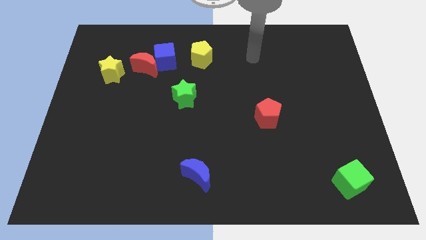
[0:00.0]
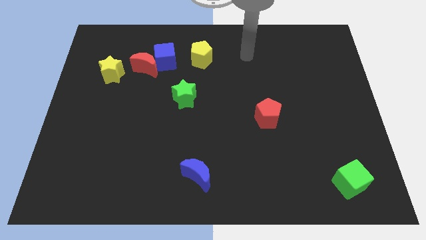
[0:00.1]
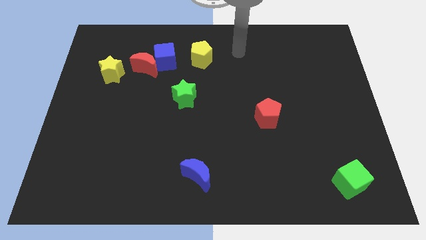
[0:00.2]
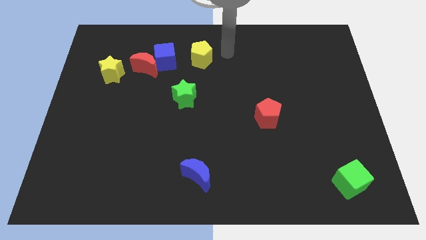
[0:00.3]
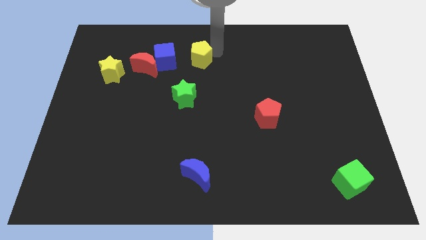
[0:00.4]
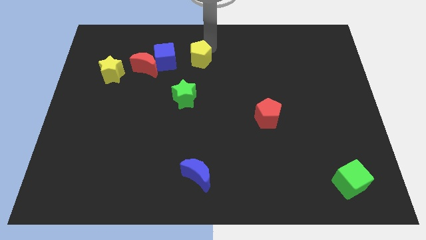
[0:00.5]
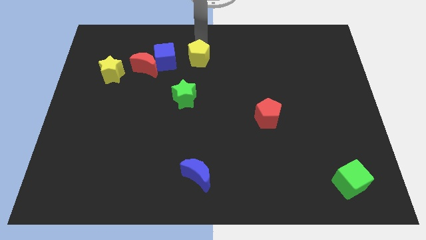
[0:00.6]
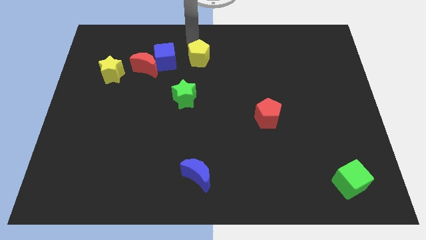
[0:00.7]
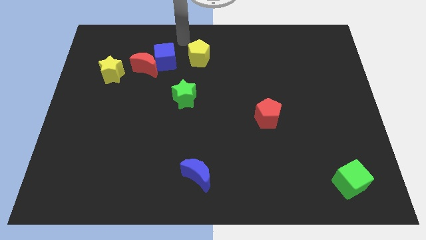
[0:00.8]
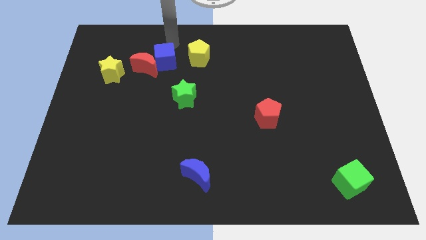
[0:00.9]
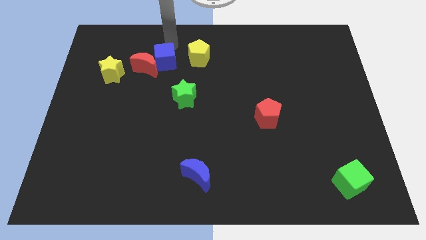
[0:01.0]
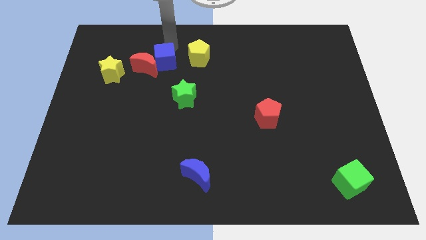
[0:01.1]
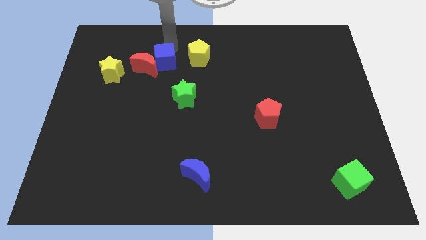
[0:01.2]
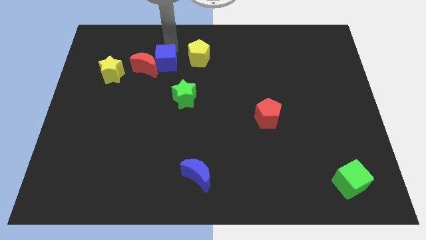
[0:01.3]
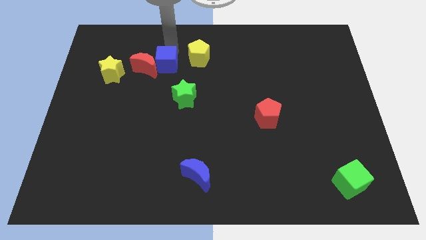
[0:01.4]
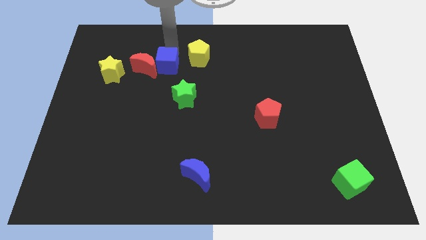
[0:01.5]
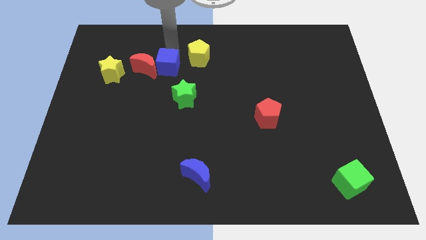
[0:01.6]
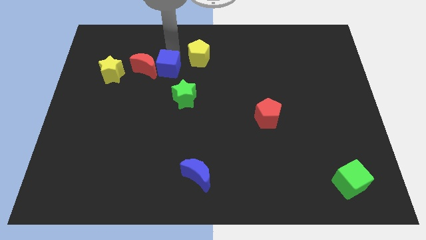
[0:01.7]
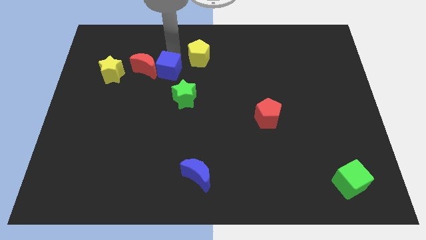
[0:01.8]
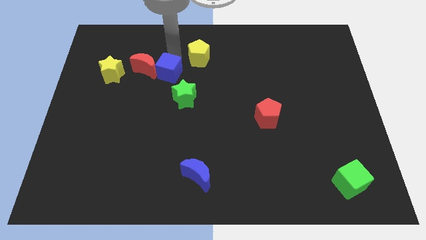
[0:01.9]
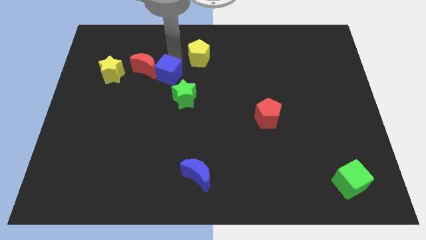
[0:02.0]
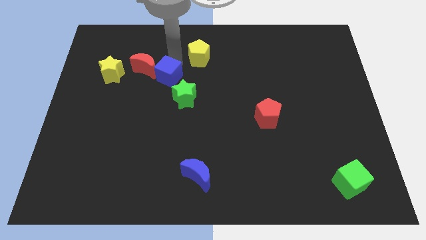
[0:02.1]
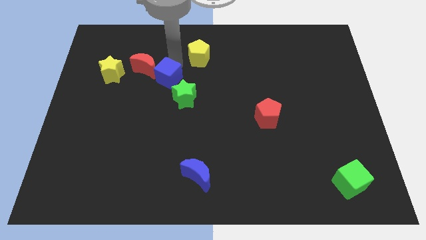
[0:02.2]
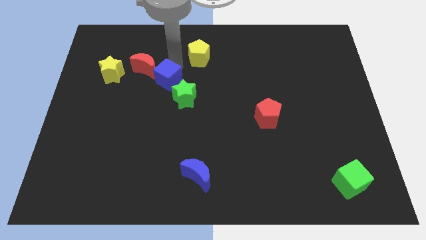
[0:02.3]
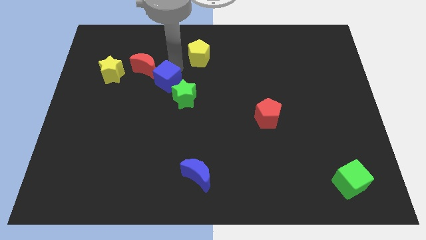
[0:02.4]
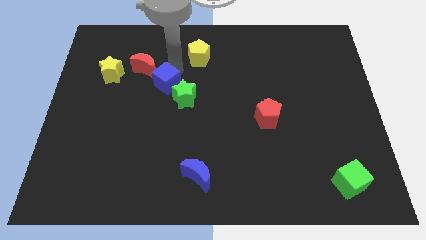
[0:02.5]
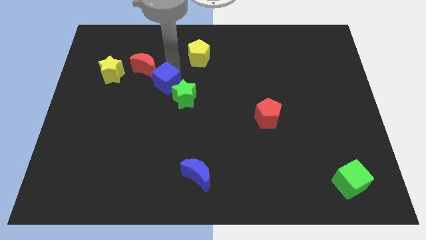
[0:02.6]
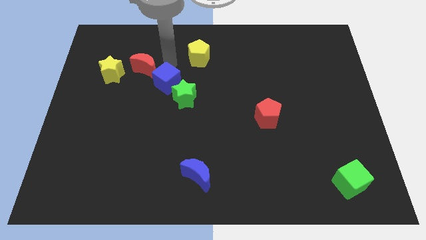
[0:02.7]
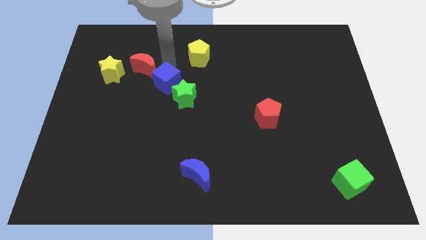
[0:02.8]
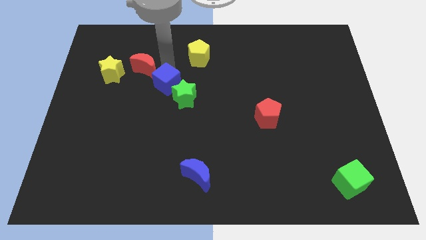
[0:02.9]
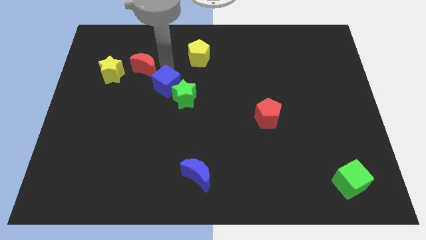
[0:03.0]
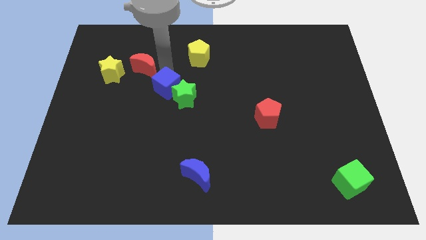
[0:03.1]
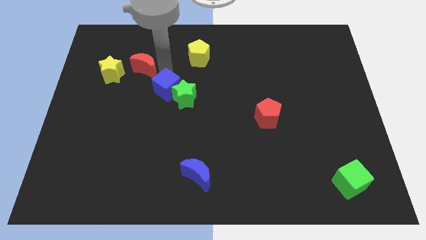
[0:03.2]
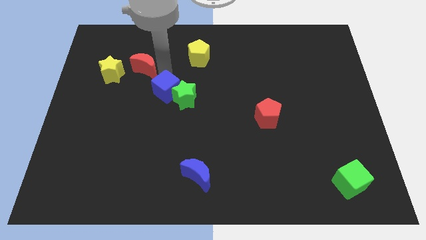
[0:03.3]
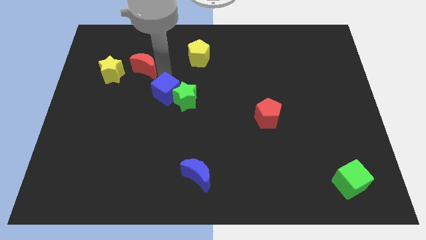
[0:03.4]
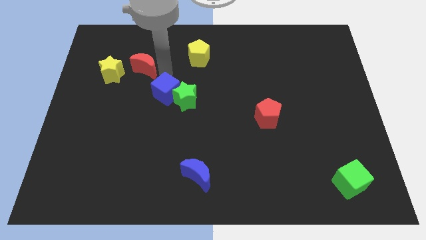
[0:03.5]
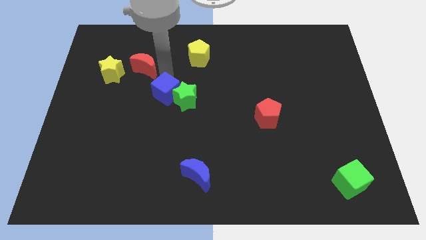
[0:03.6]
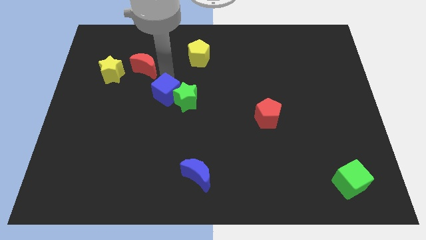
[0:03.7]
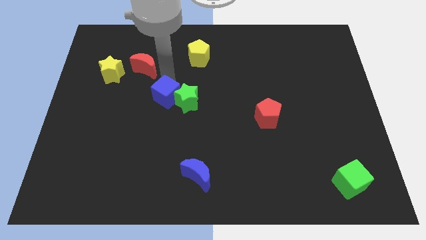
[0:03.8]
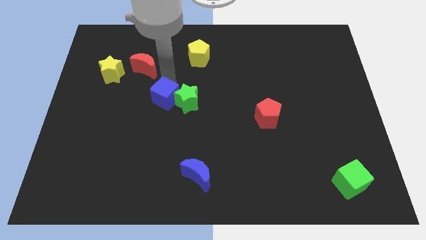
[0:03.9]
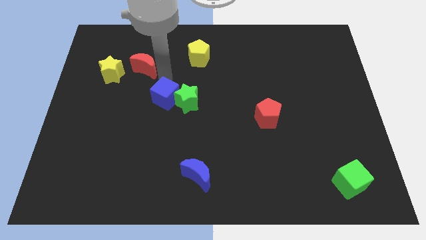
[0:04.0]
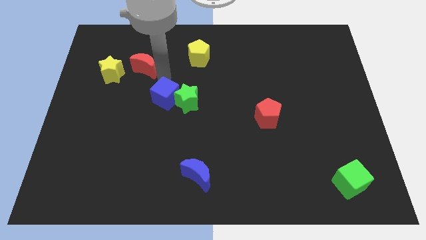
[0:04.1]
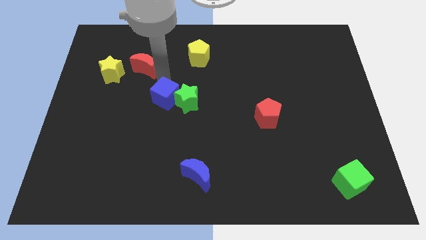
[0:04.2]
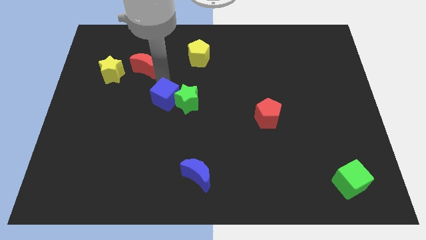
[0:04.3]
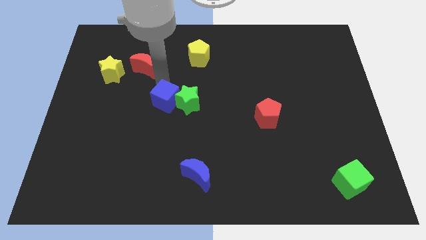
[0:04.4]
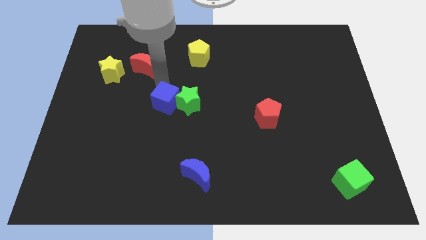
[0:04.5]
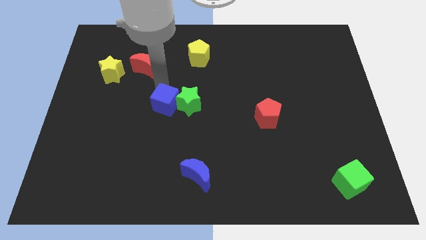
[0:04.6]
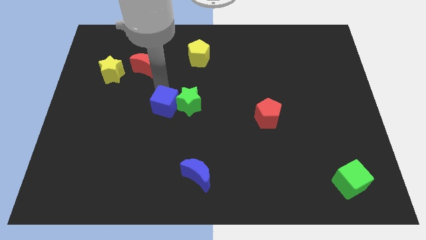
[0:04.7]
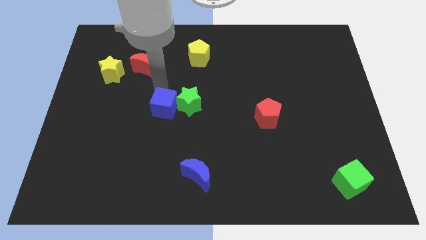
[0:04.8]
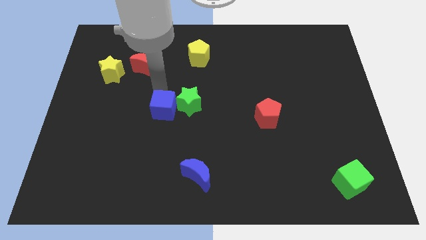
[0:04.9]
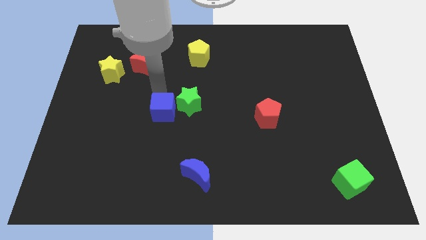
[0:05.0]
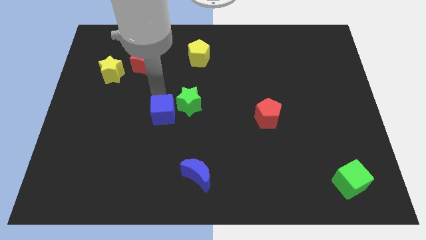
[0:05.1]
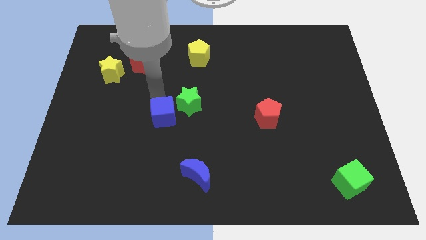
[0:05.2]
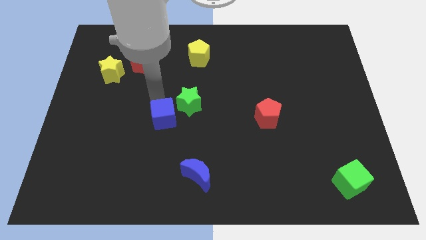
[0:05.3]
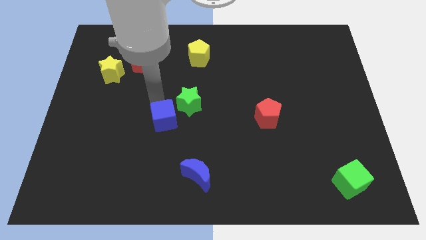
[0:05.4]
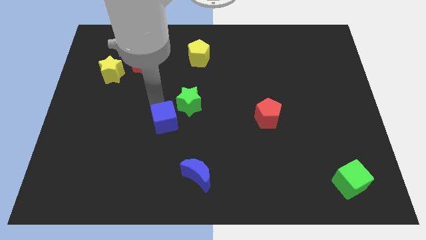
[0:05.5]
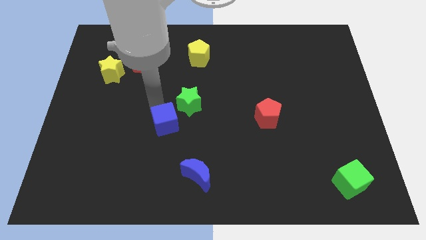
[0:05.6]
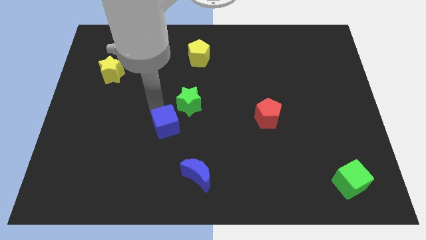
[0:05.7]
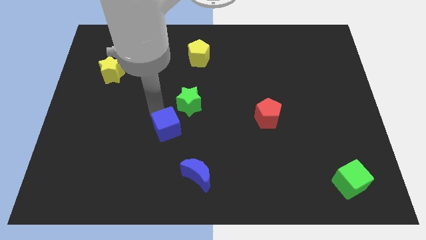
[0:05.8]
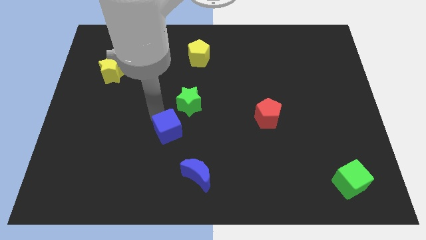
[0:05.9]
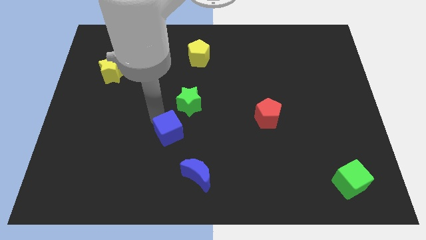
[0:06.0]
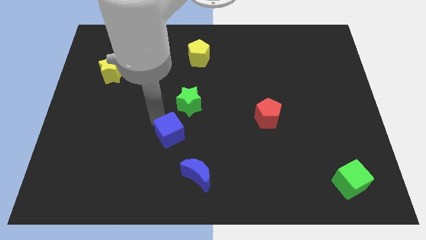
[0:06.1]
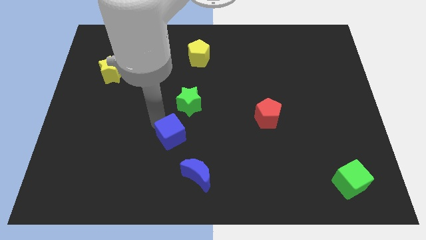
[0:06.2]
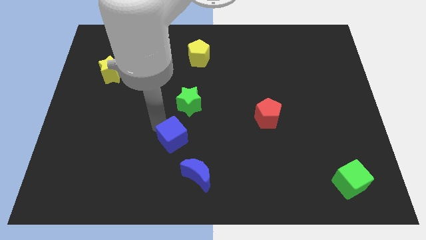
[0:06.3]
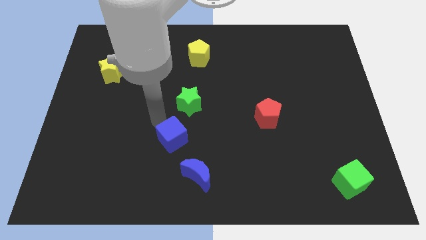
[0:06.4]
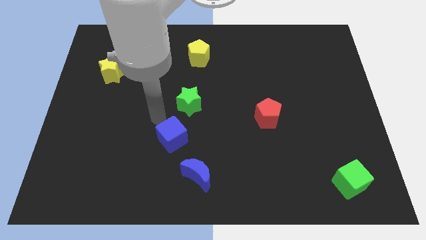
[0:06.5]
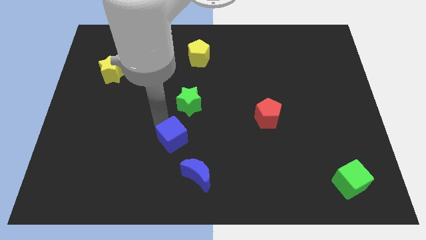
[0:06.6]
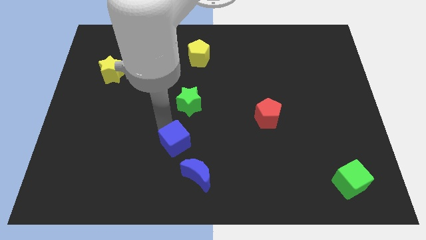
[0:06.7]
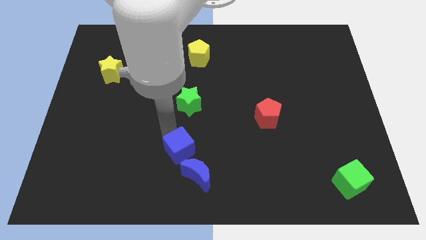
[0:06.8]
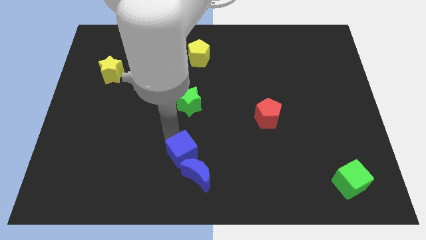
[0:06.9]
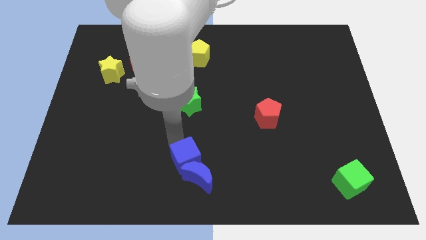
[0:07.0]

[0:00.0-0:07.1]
slide the blue cube next to the blue moon

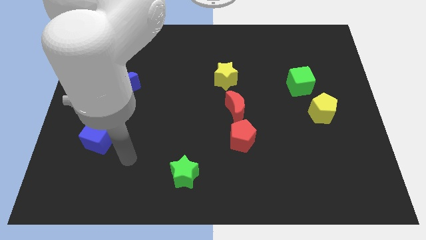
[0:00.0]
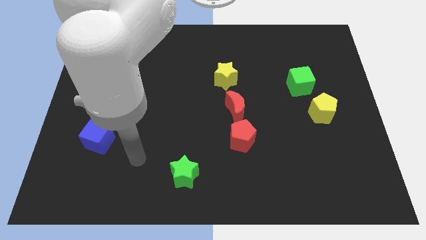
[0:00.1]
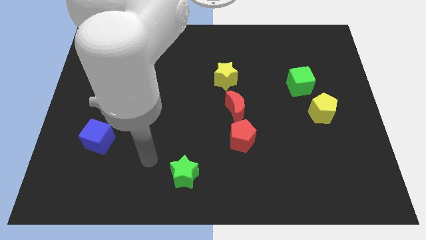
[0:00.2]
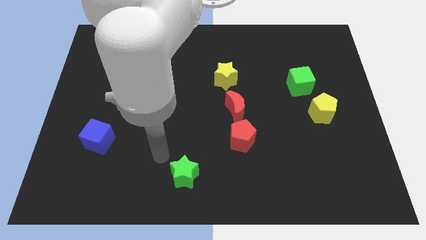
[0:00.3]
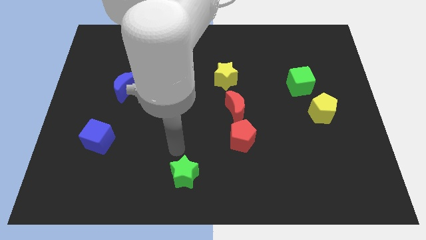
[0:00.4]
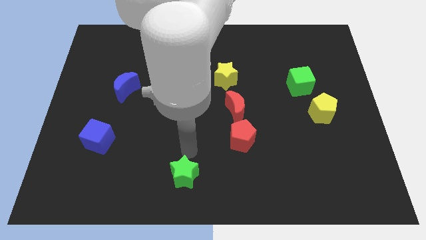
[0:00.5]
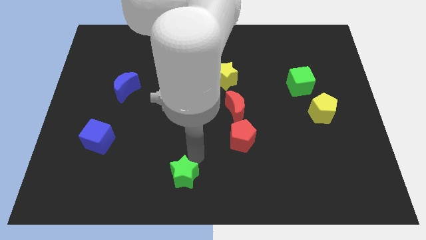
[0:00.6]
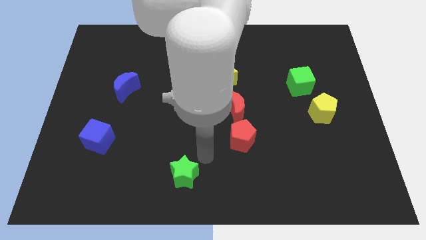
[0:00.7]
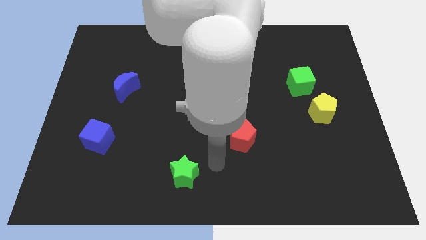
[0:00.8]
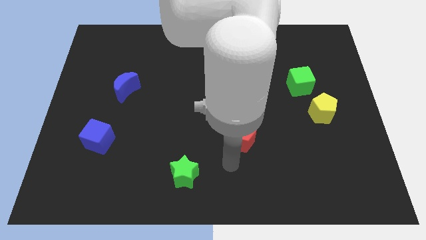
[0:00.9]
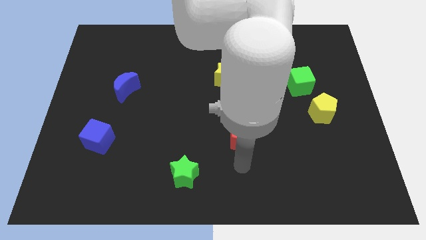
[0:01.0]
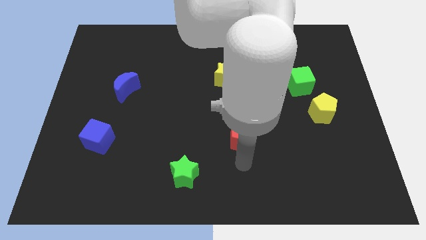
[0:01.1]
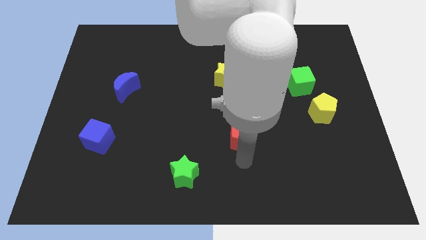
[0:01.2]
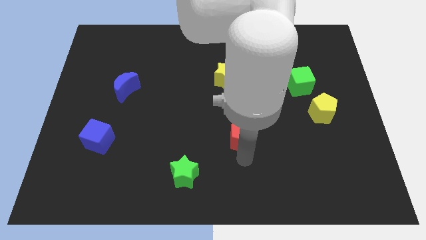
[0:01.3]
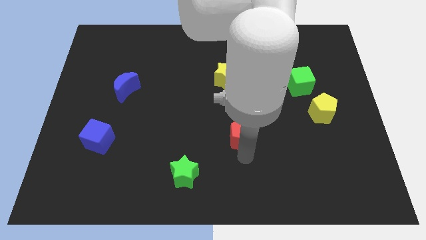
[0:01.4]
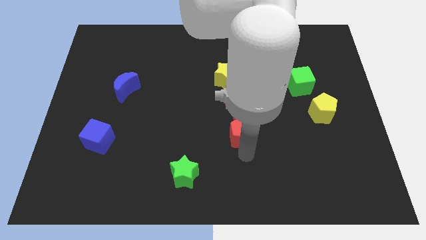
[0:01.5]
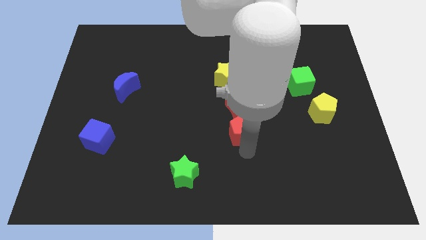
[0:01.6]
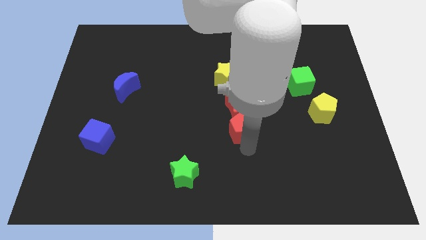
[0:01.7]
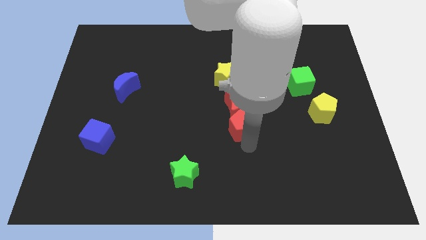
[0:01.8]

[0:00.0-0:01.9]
slide the red pentagon towards the red moon
